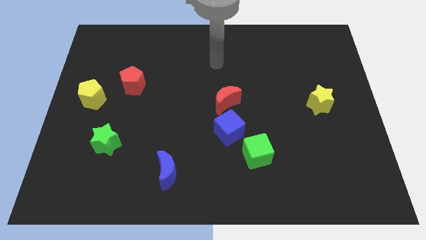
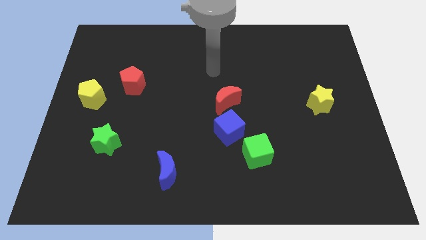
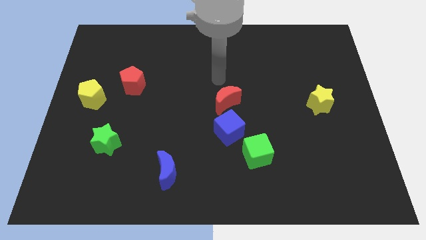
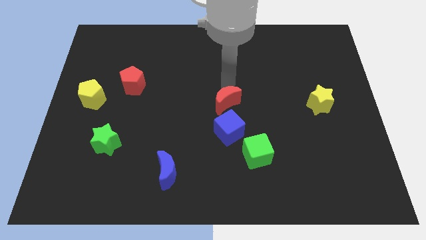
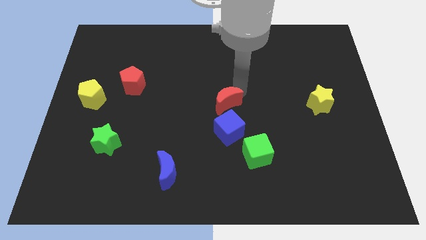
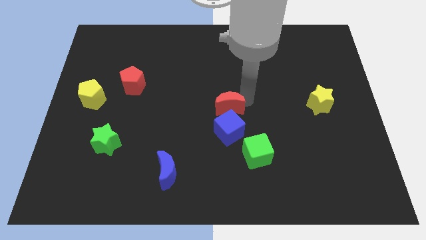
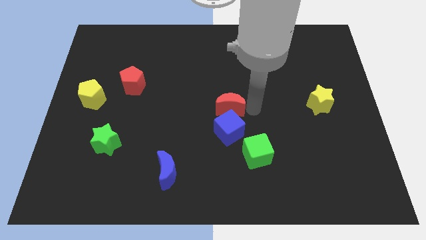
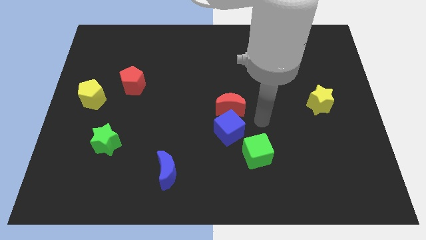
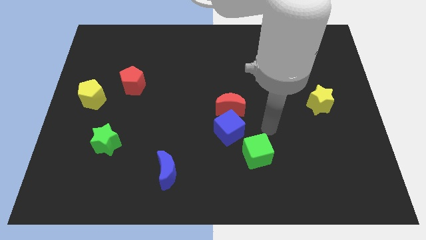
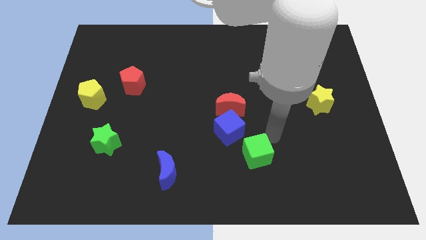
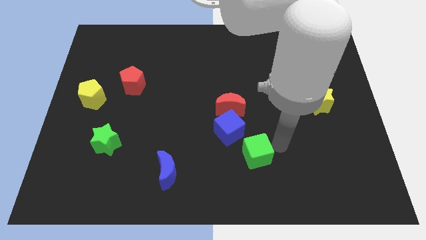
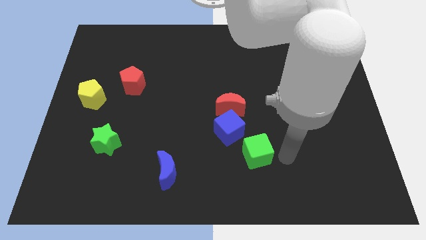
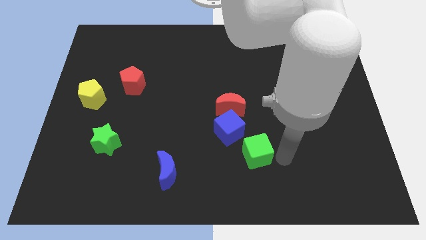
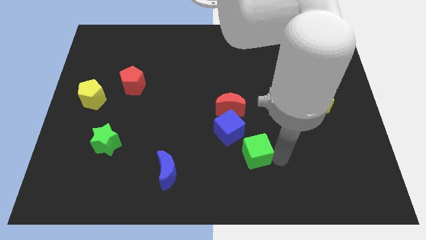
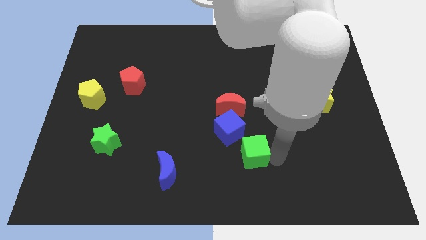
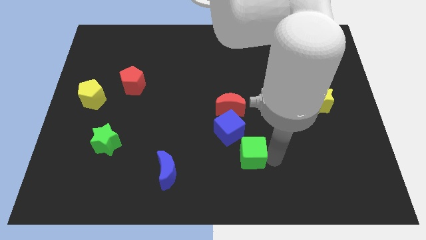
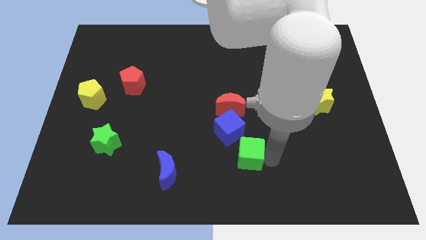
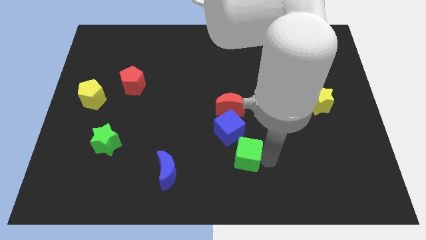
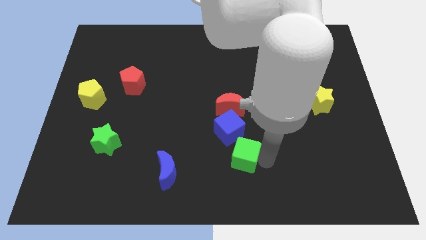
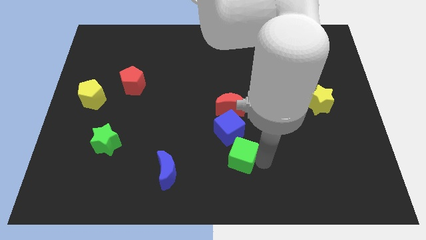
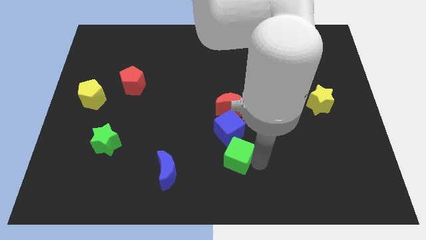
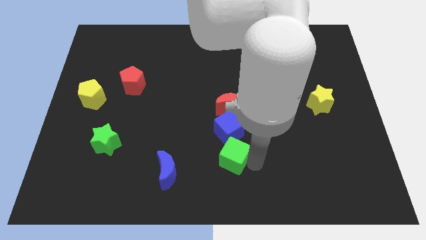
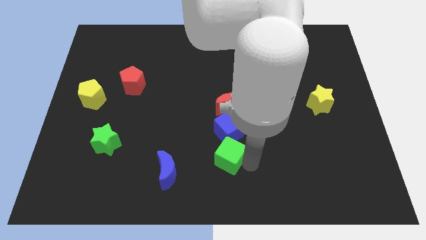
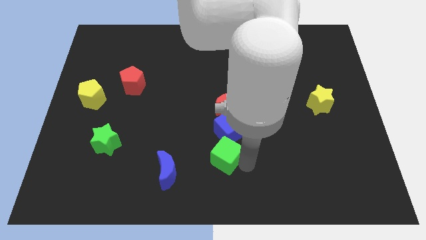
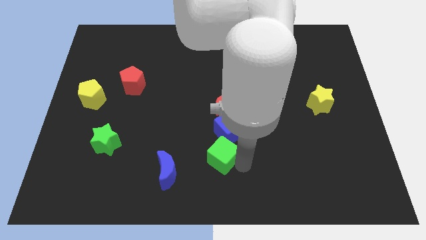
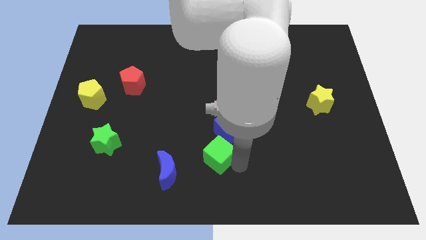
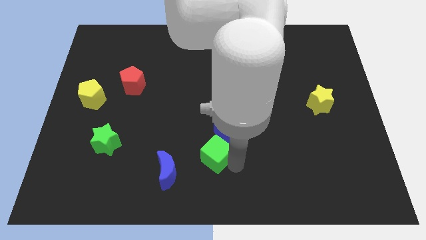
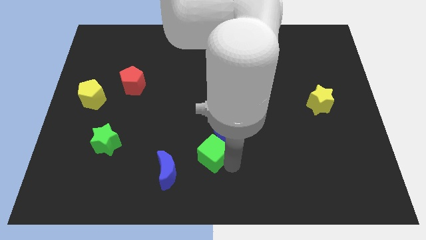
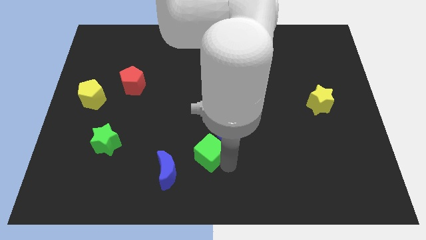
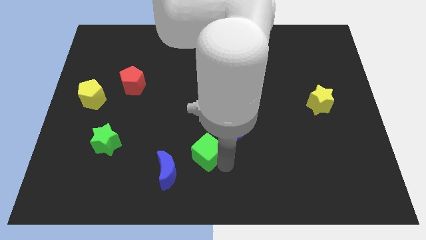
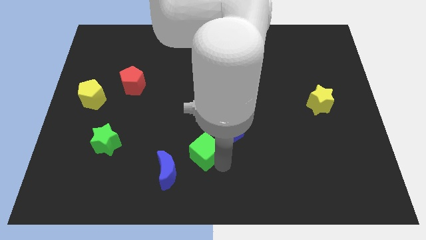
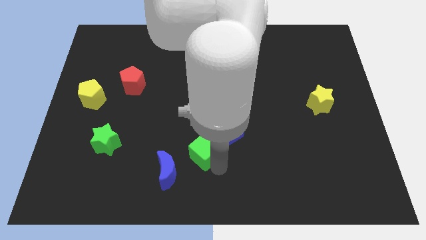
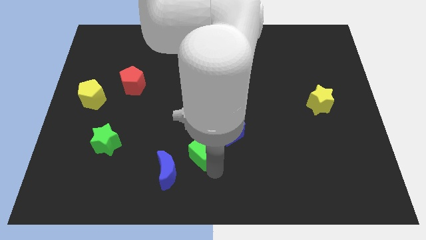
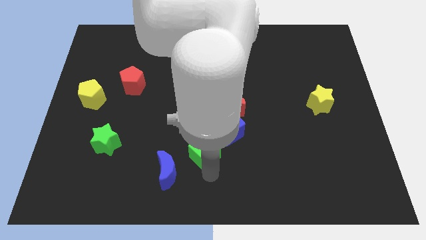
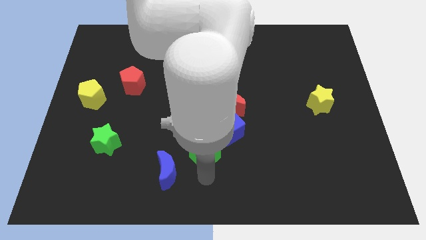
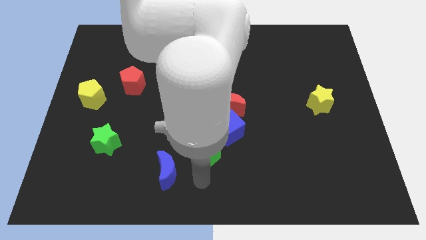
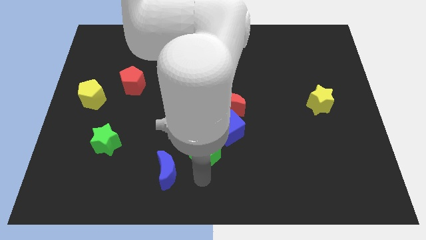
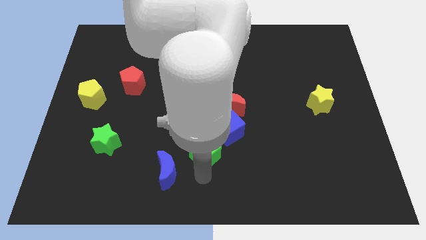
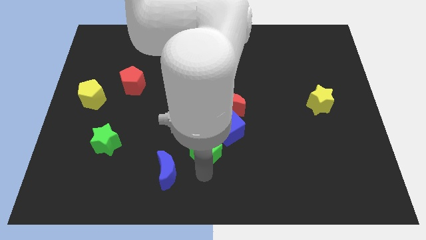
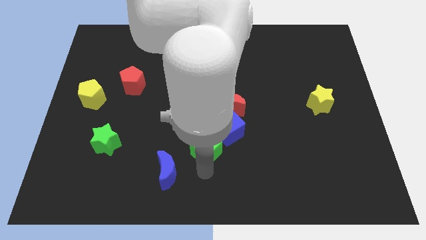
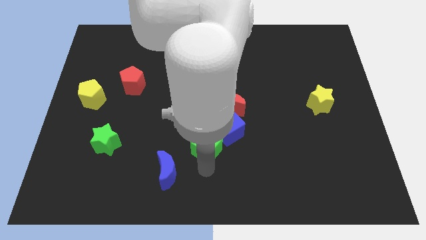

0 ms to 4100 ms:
move the green cube upwards and left a little

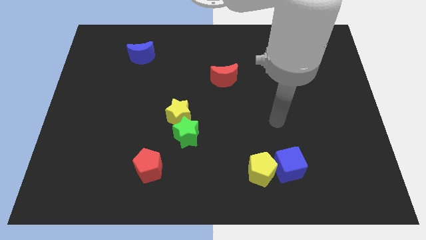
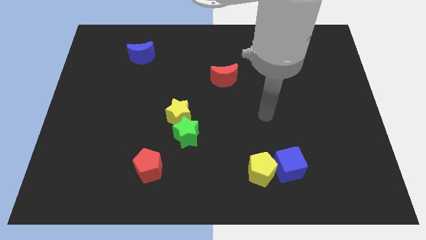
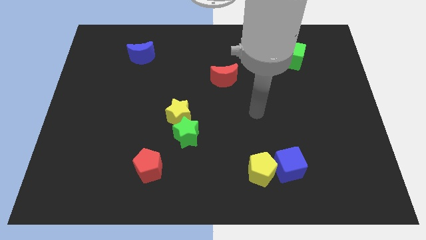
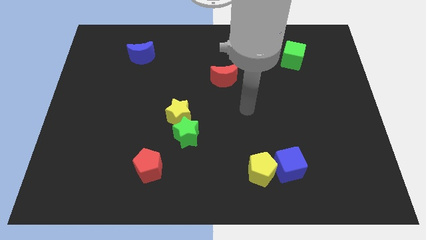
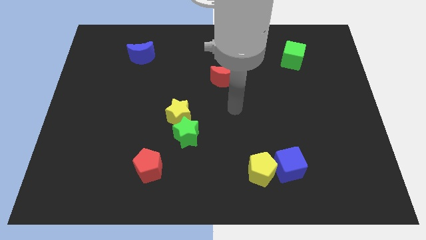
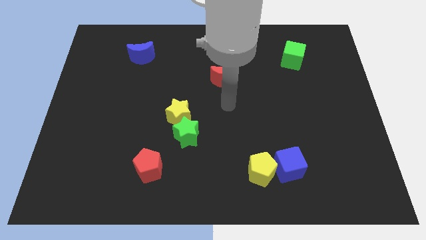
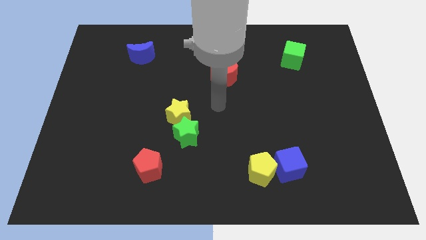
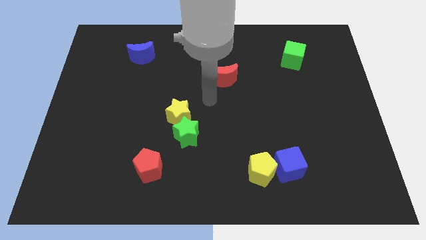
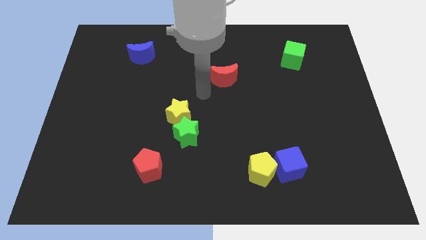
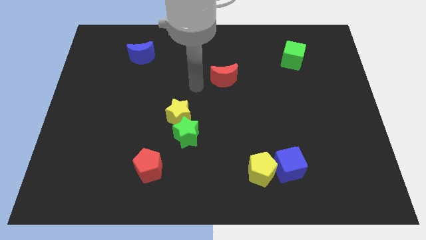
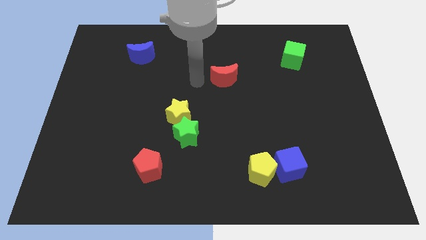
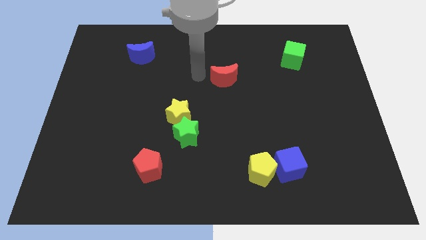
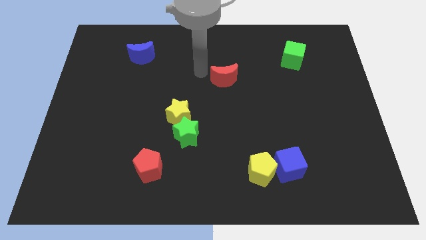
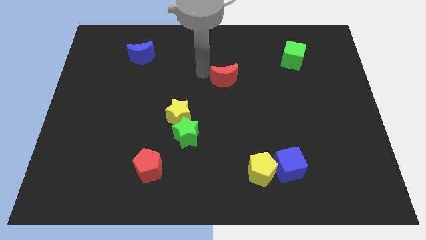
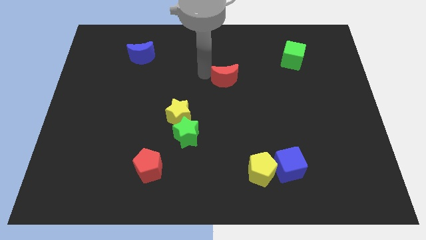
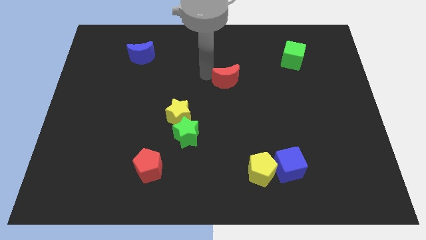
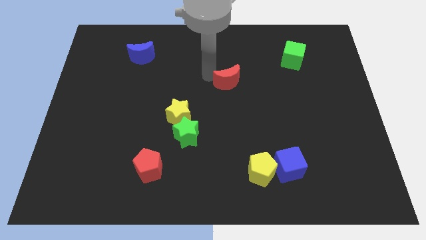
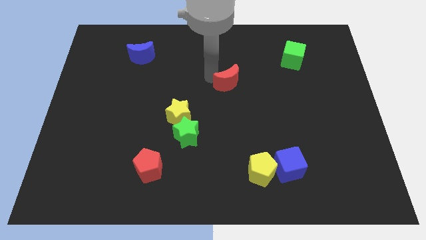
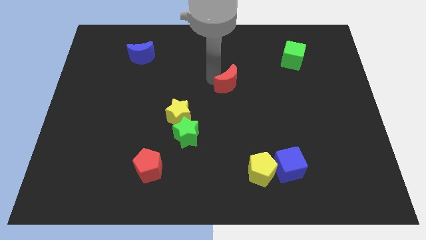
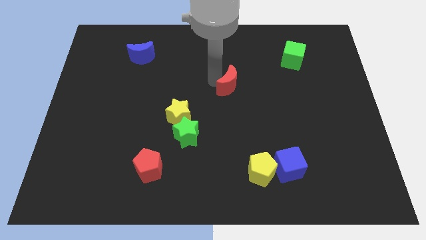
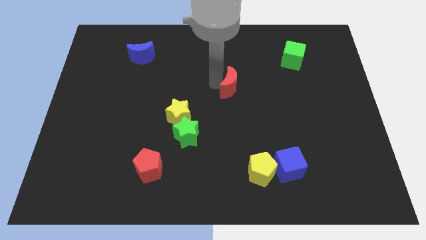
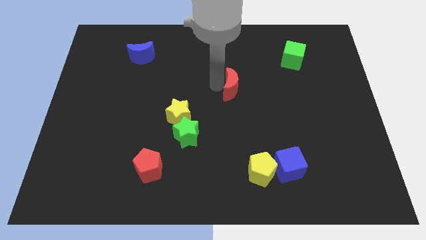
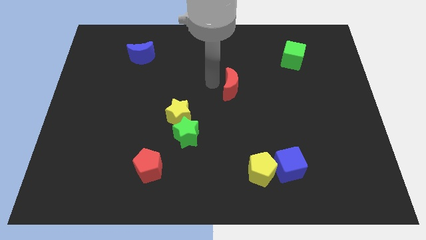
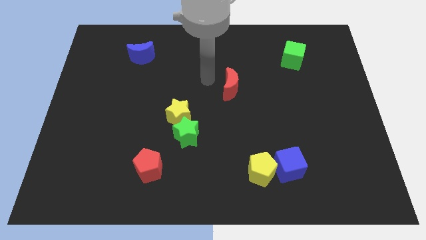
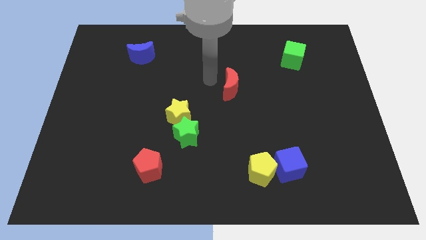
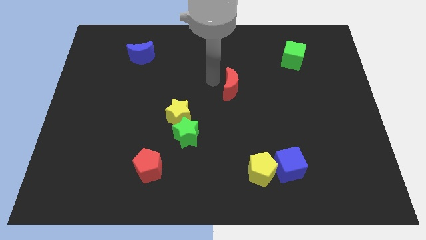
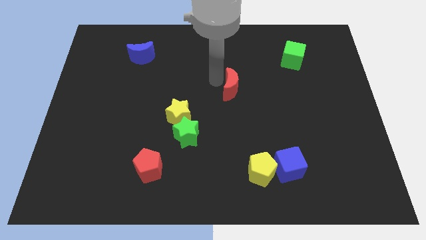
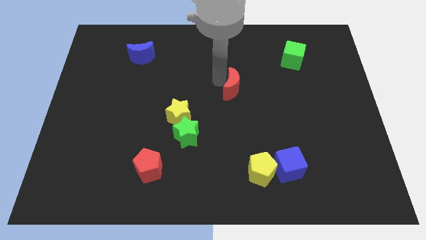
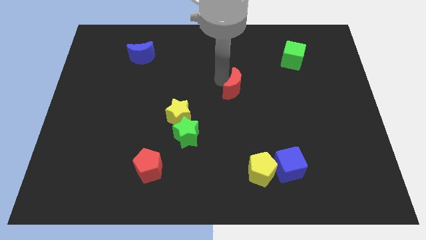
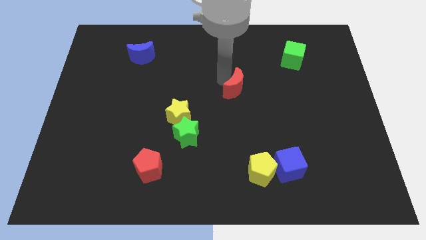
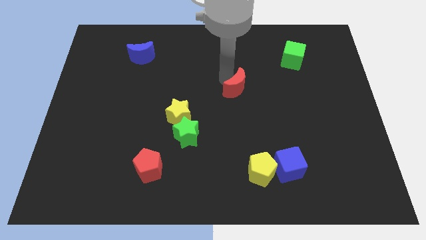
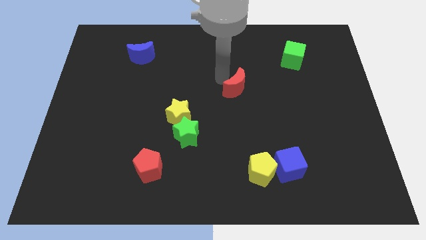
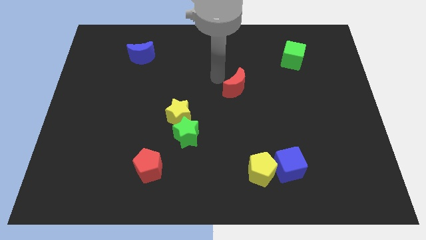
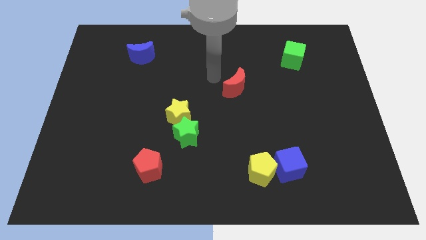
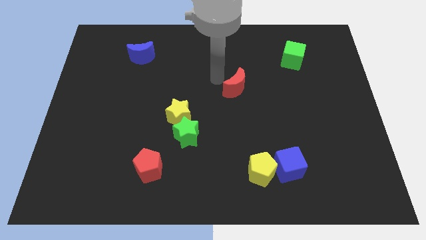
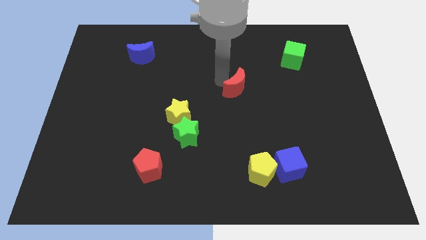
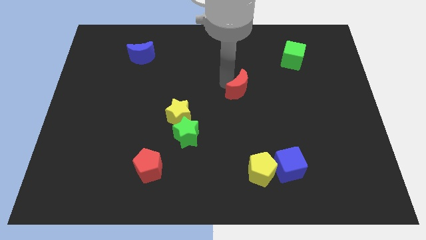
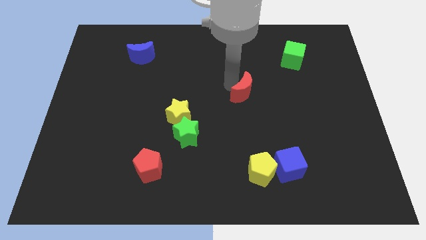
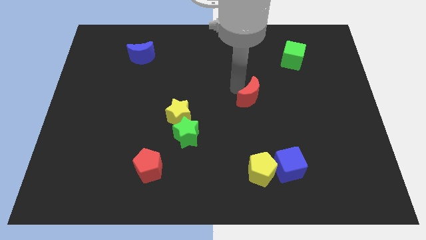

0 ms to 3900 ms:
move the red moon a bit downwards and then to the right

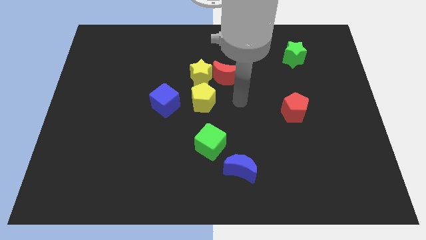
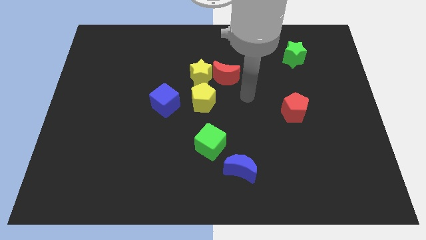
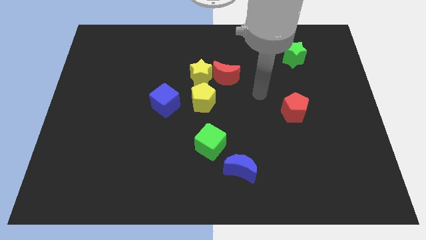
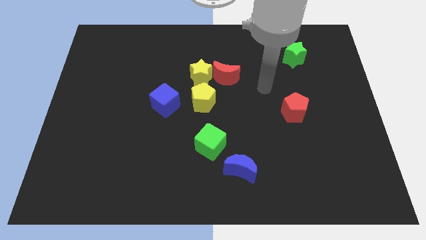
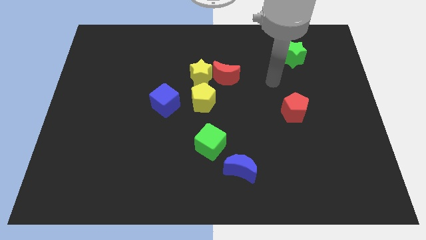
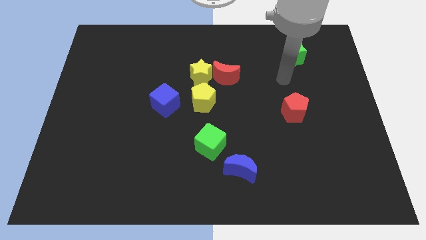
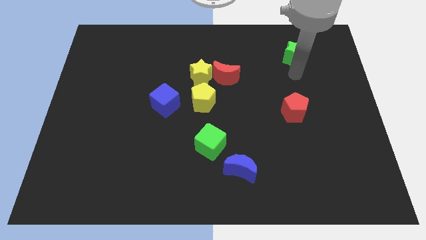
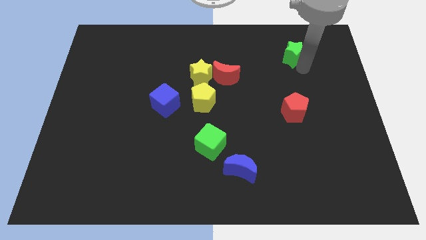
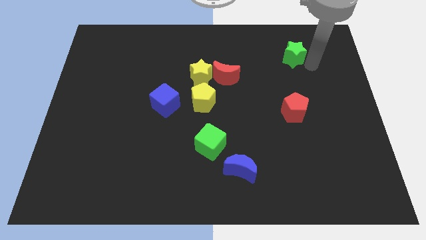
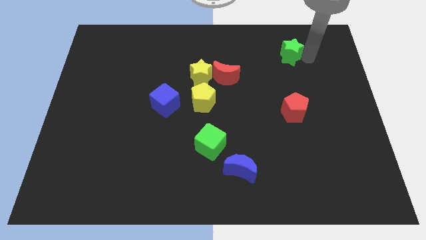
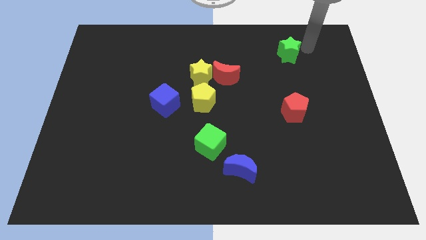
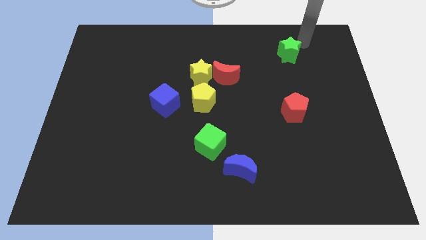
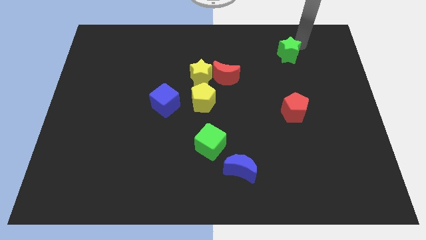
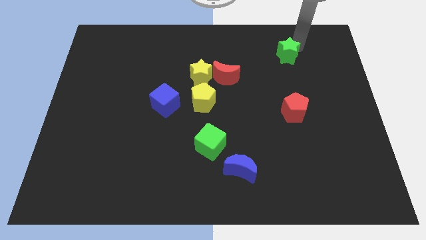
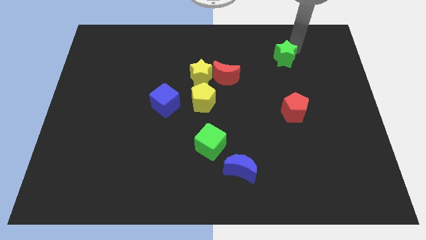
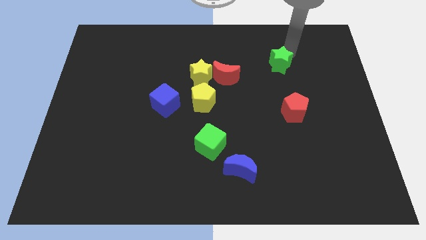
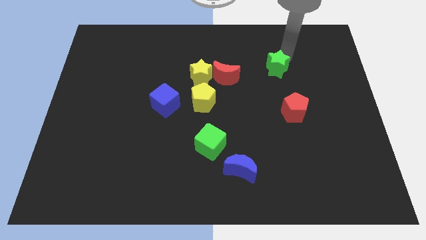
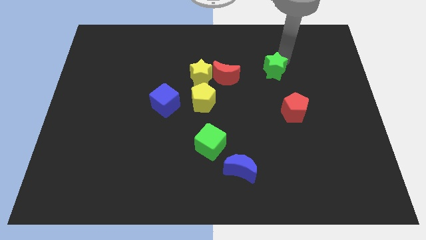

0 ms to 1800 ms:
move the green star a bit downwards and to the left diagonally
